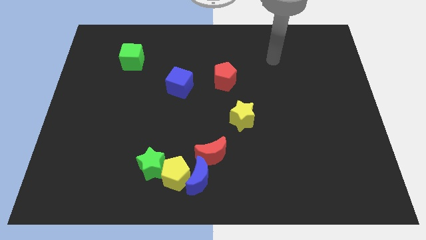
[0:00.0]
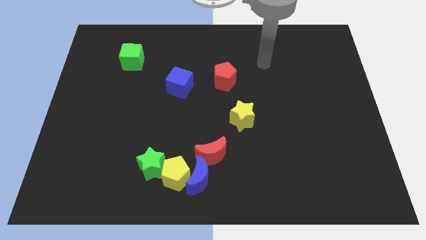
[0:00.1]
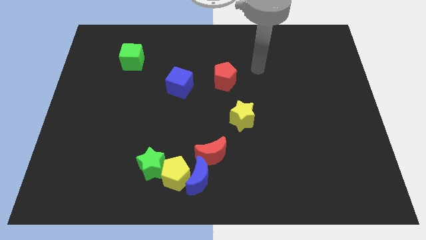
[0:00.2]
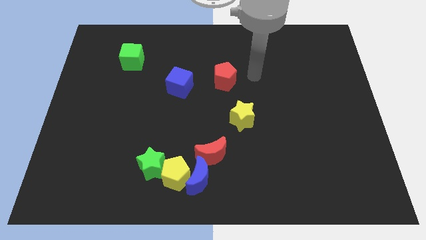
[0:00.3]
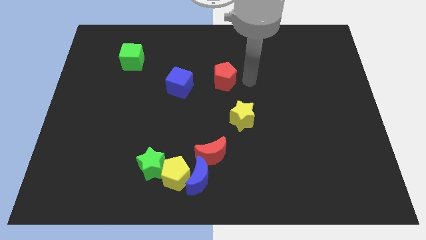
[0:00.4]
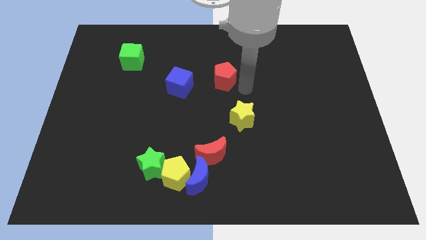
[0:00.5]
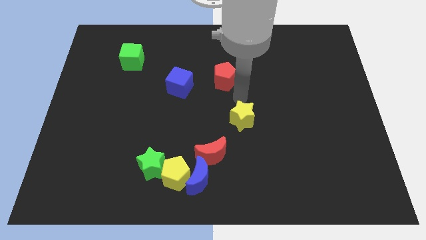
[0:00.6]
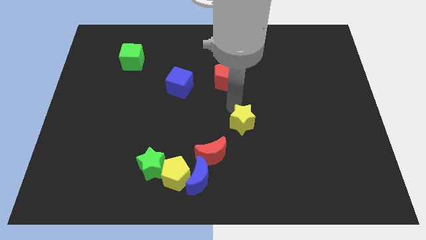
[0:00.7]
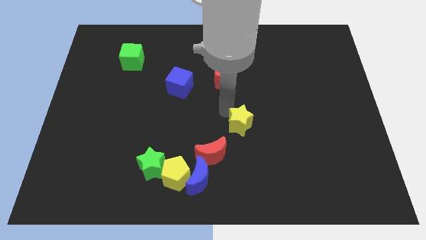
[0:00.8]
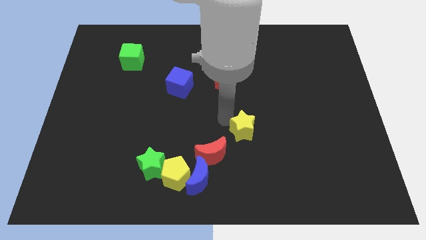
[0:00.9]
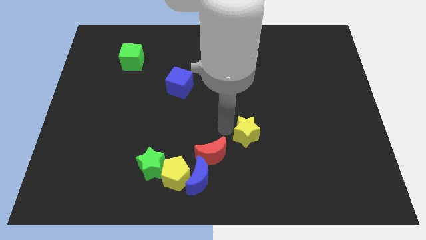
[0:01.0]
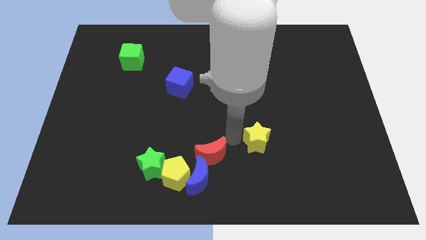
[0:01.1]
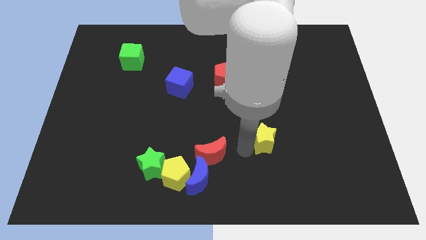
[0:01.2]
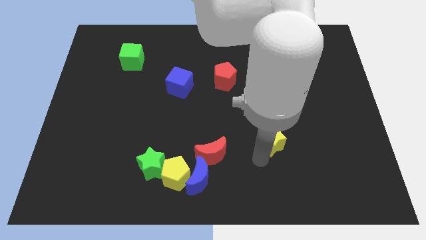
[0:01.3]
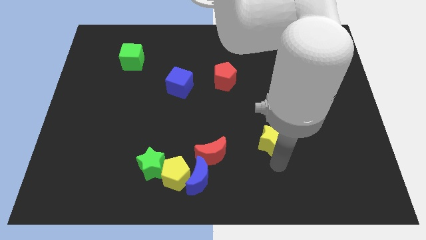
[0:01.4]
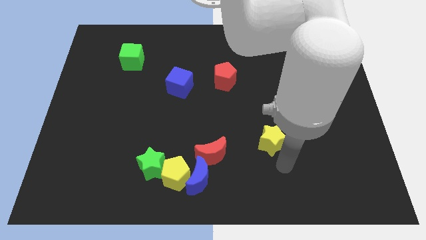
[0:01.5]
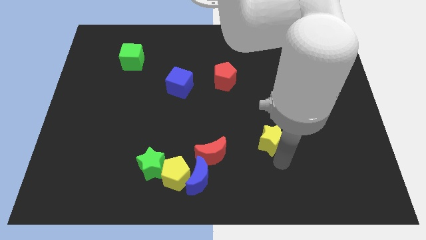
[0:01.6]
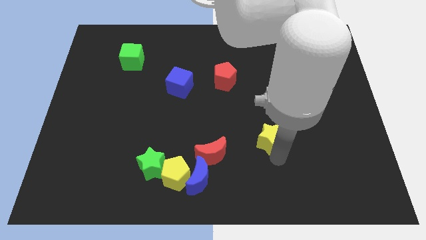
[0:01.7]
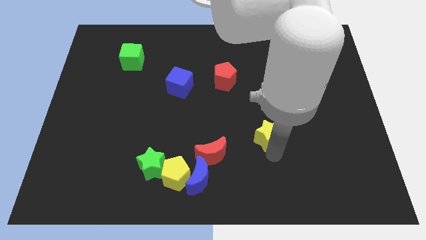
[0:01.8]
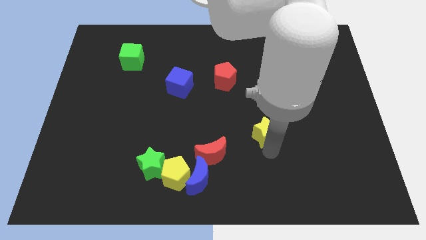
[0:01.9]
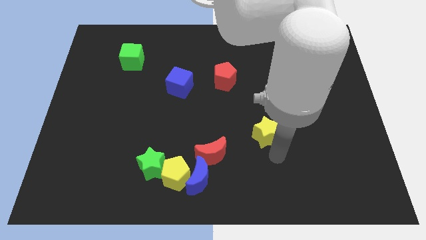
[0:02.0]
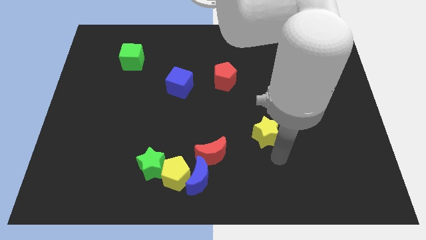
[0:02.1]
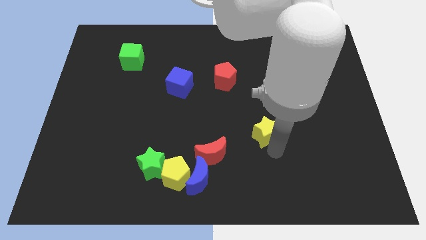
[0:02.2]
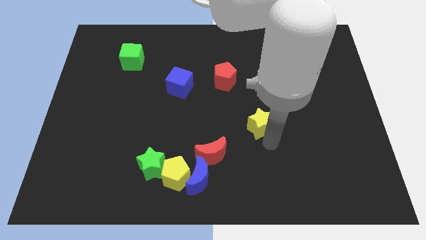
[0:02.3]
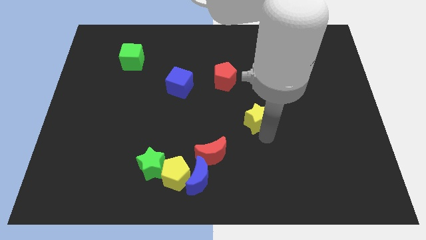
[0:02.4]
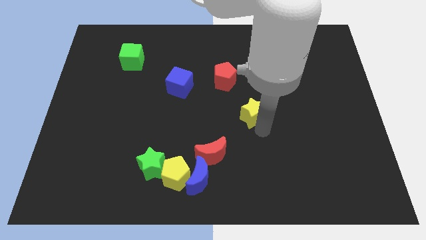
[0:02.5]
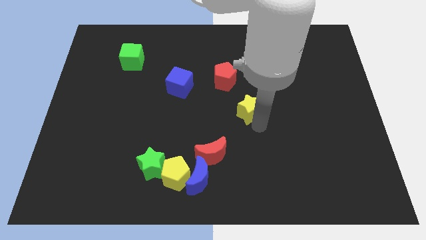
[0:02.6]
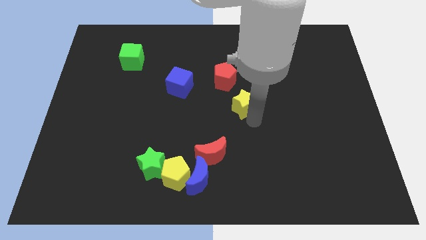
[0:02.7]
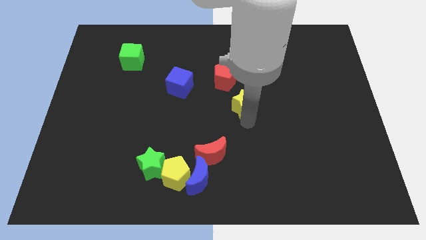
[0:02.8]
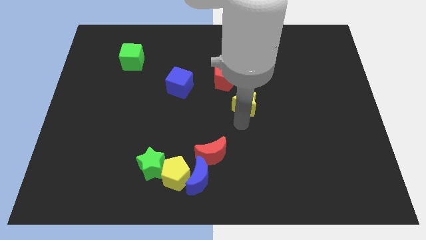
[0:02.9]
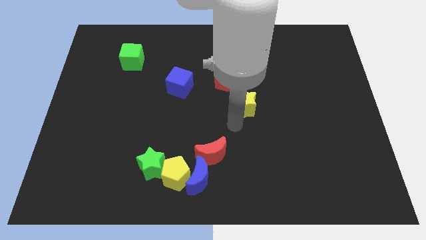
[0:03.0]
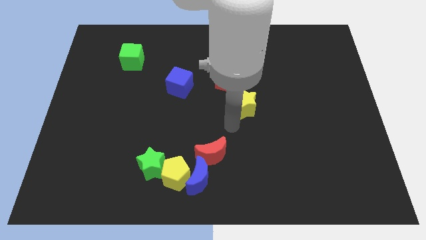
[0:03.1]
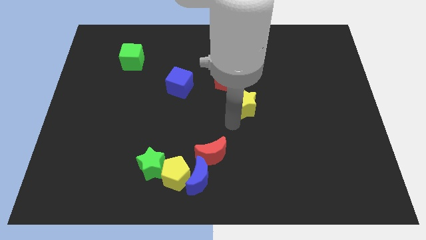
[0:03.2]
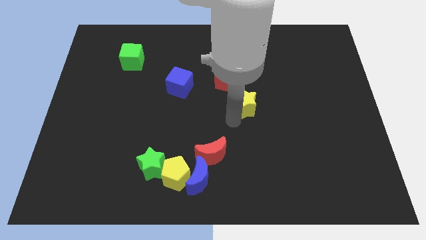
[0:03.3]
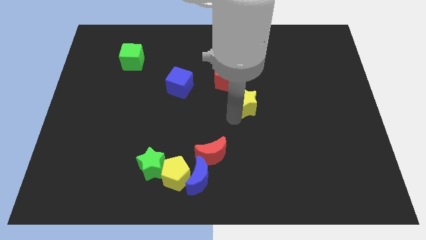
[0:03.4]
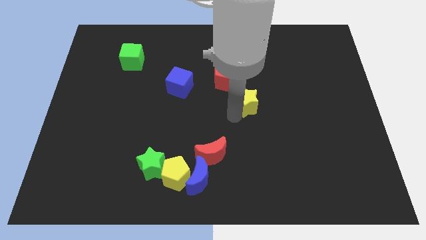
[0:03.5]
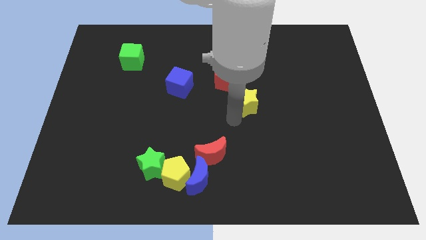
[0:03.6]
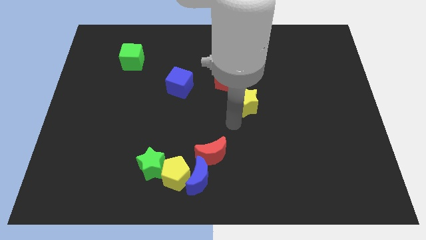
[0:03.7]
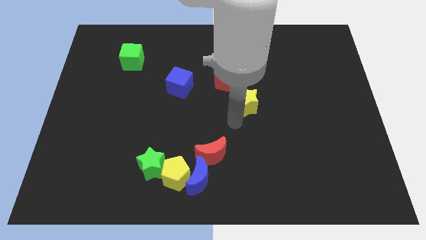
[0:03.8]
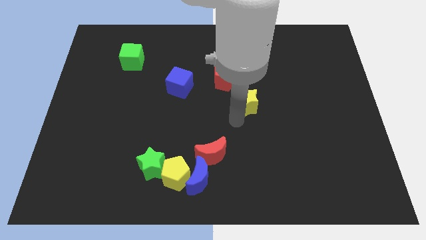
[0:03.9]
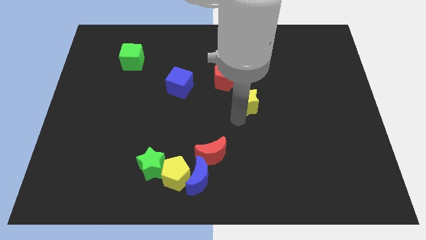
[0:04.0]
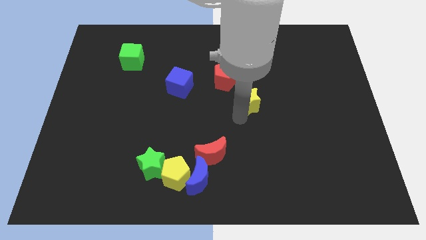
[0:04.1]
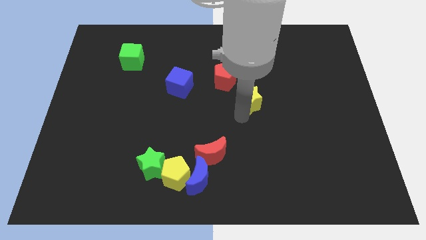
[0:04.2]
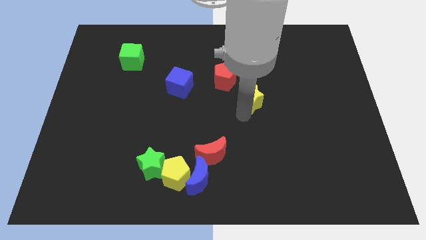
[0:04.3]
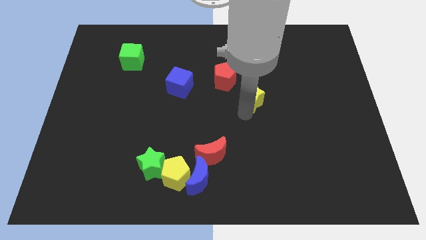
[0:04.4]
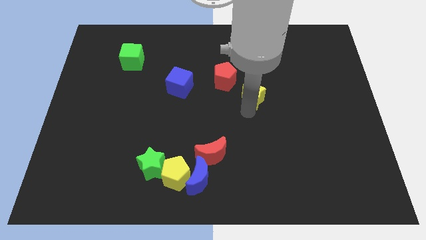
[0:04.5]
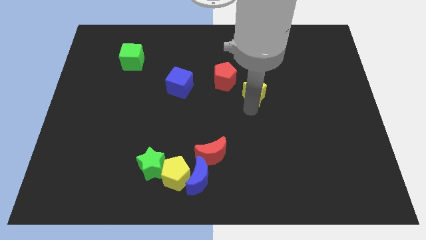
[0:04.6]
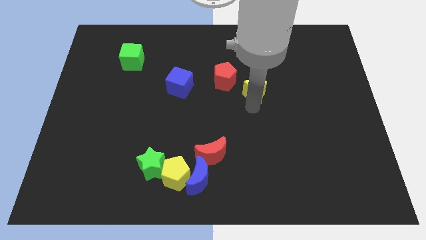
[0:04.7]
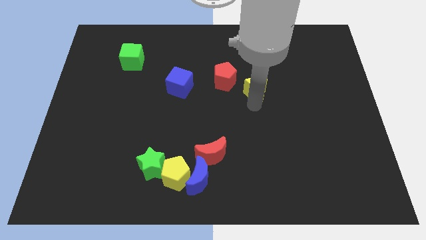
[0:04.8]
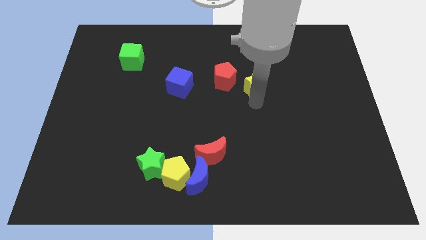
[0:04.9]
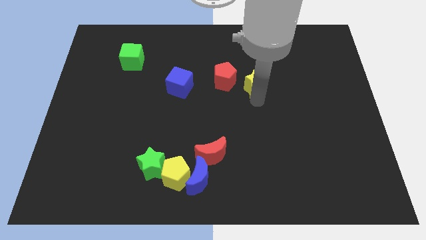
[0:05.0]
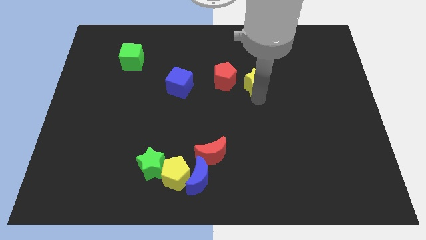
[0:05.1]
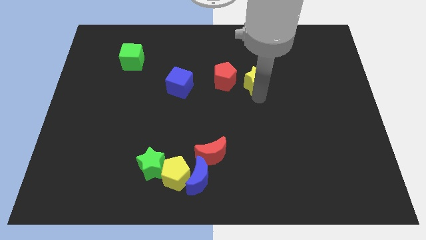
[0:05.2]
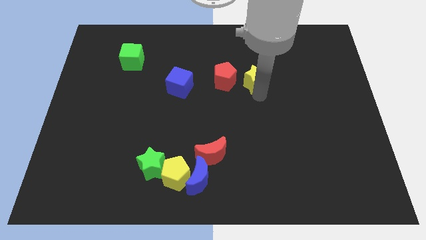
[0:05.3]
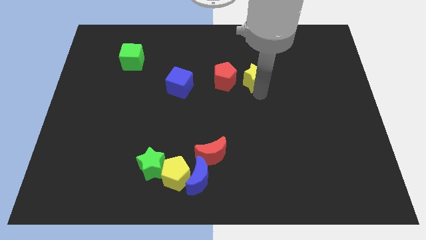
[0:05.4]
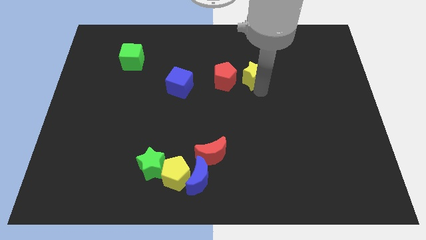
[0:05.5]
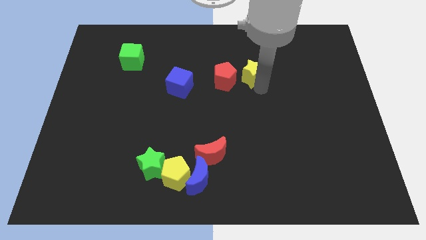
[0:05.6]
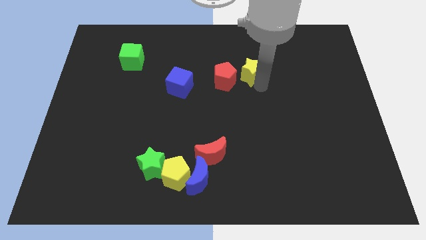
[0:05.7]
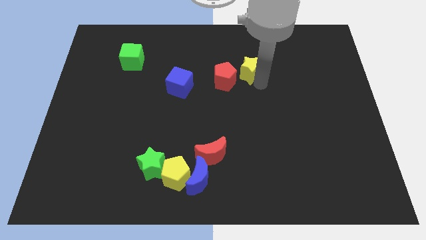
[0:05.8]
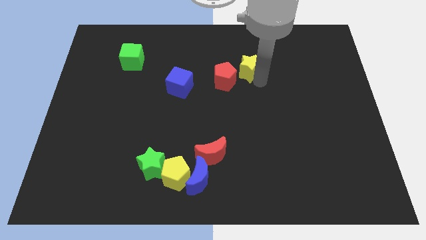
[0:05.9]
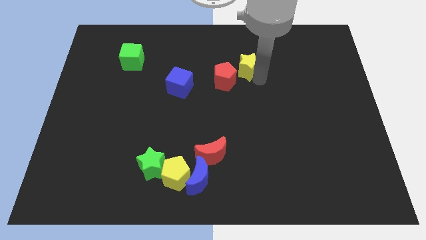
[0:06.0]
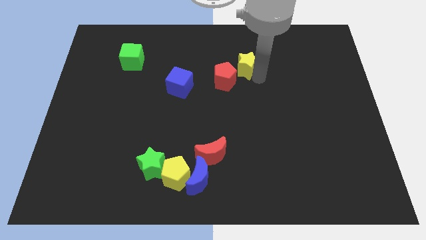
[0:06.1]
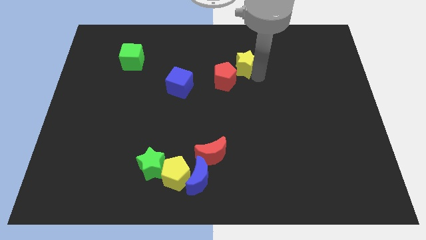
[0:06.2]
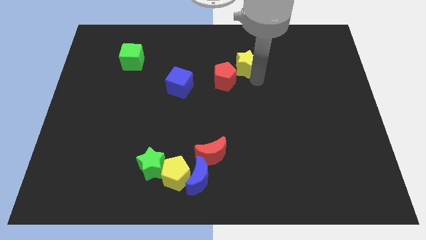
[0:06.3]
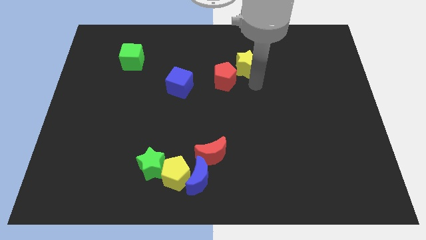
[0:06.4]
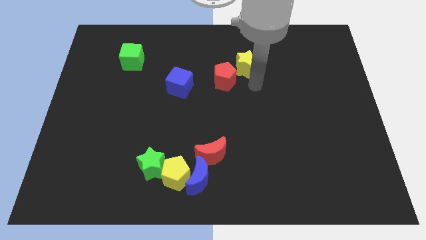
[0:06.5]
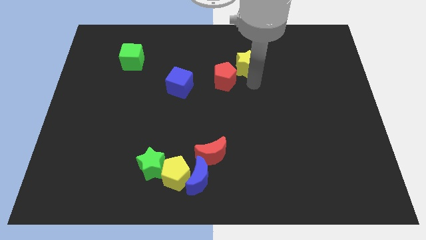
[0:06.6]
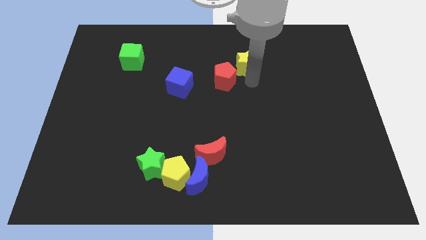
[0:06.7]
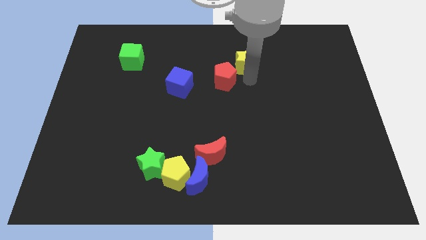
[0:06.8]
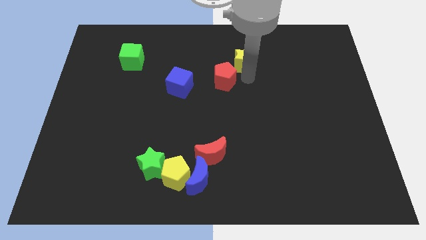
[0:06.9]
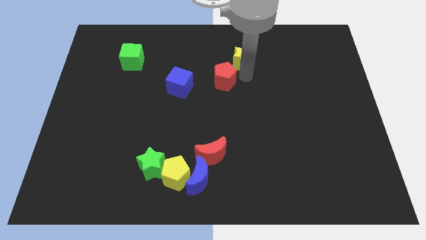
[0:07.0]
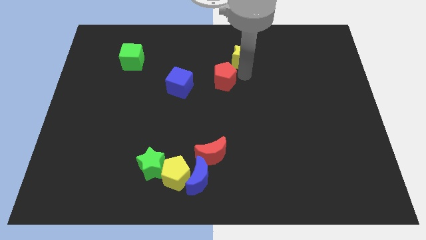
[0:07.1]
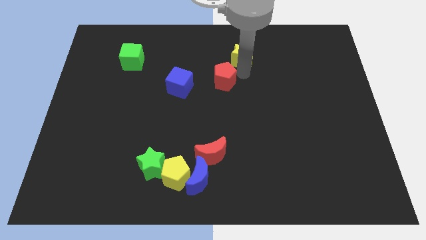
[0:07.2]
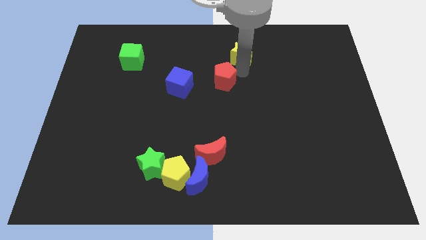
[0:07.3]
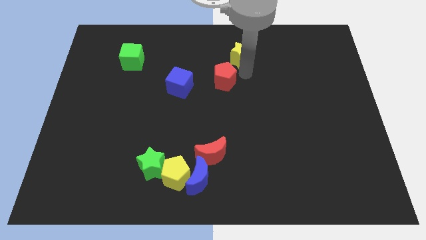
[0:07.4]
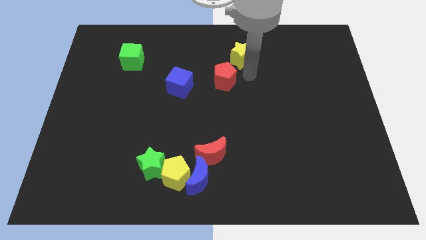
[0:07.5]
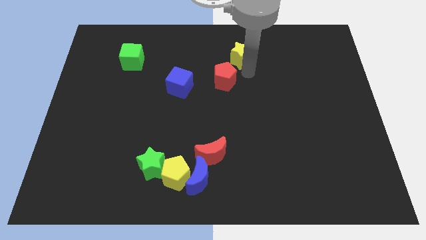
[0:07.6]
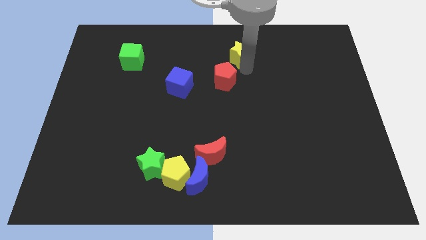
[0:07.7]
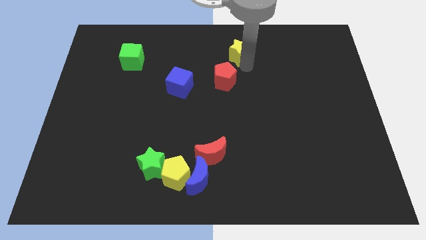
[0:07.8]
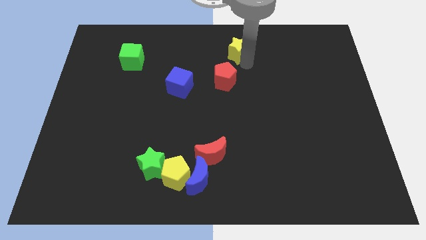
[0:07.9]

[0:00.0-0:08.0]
move the yellow star to the towards your base
